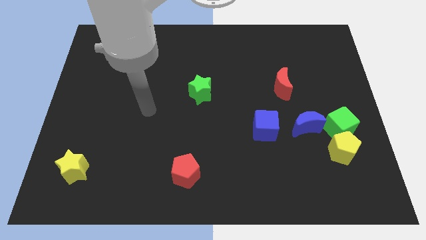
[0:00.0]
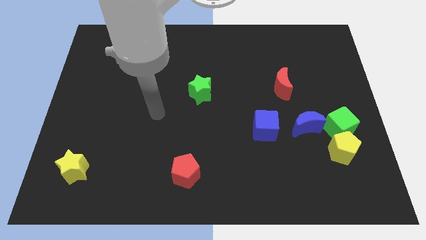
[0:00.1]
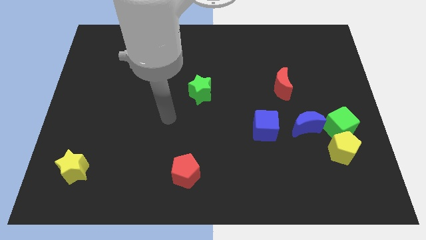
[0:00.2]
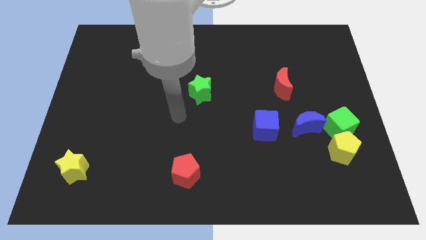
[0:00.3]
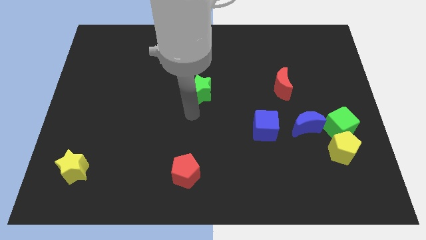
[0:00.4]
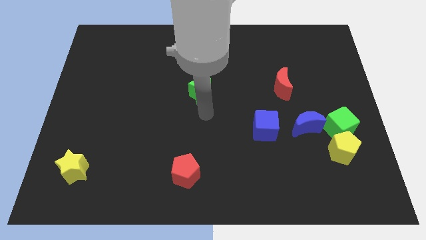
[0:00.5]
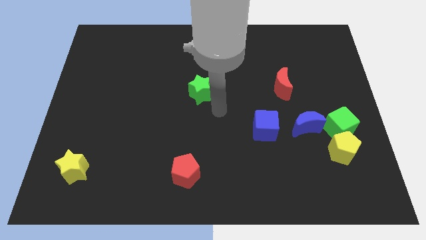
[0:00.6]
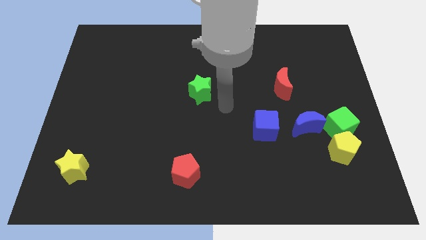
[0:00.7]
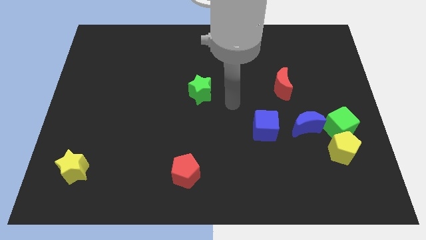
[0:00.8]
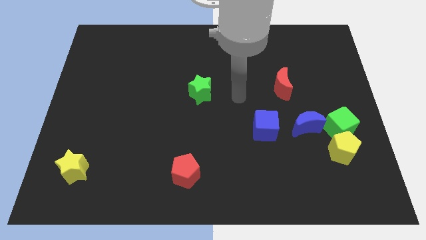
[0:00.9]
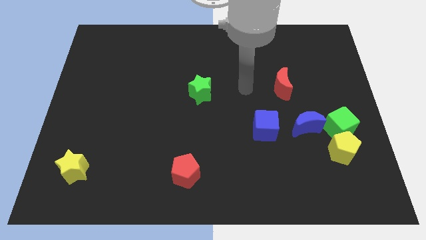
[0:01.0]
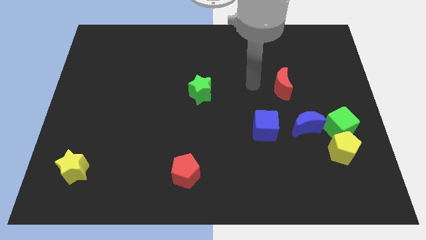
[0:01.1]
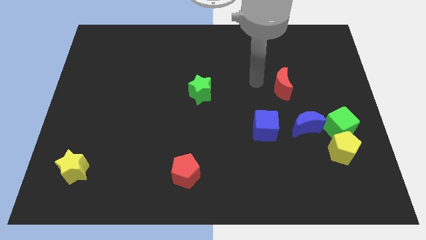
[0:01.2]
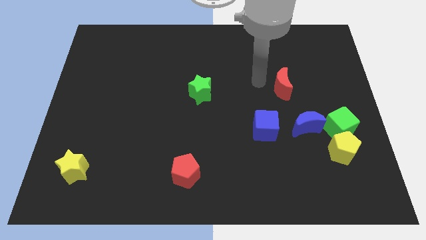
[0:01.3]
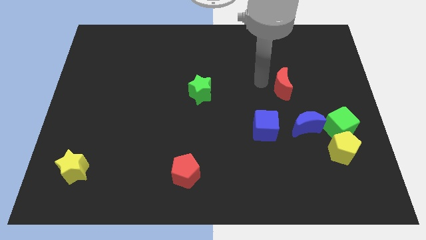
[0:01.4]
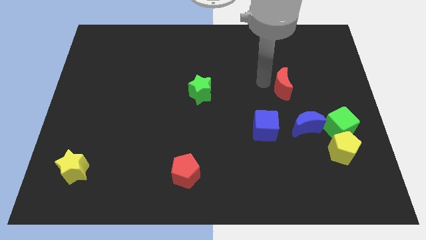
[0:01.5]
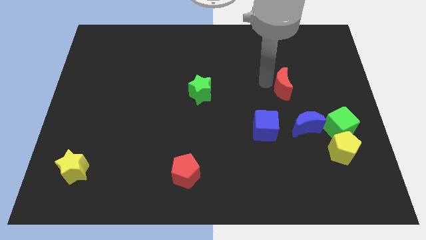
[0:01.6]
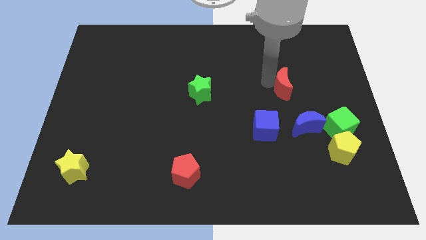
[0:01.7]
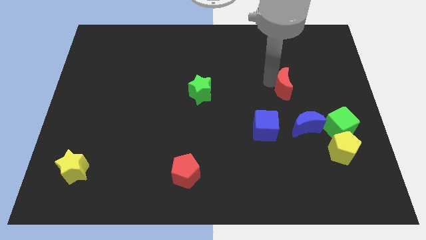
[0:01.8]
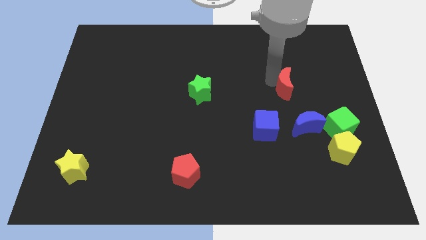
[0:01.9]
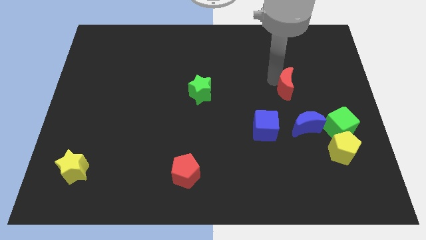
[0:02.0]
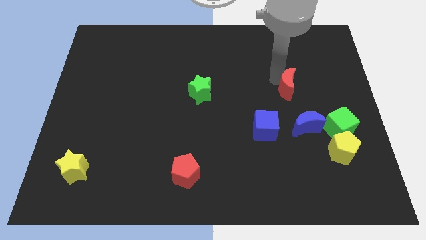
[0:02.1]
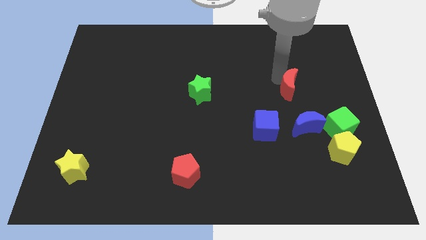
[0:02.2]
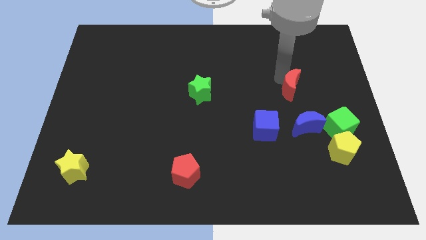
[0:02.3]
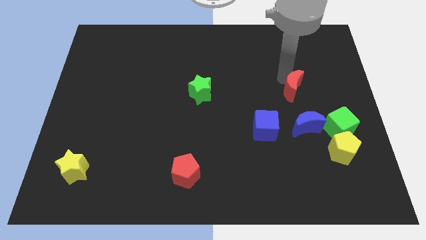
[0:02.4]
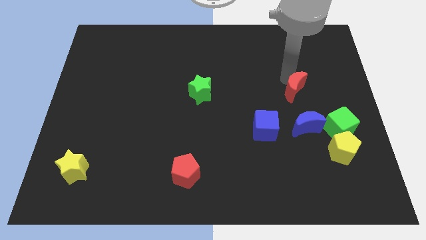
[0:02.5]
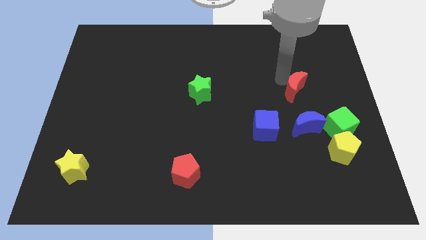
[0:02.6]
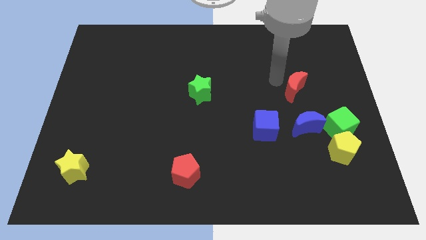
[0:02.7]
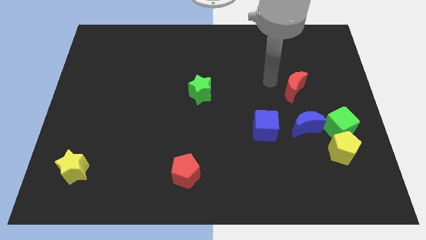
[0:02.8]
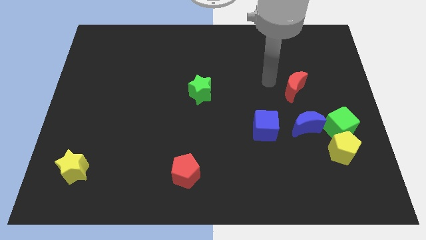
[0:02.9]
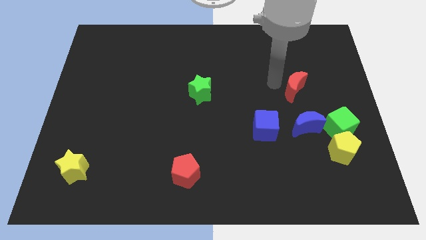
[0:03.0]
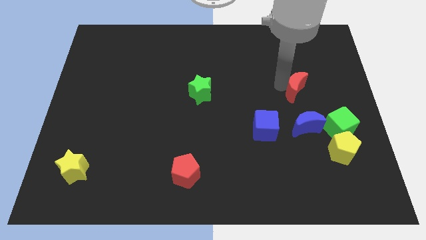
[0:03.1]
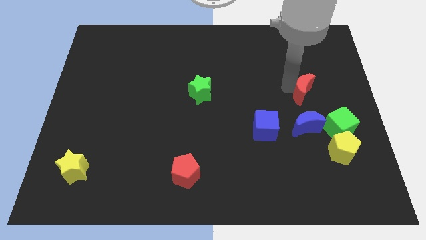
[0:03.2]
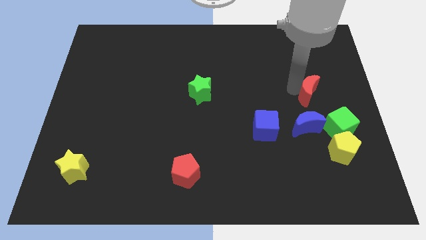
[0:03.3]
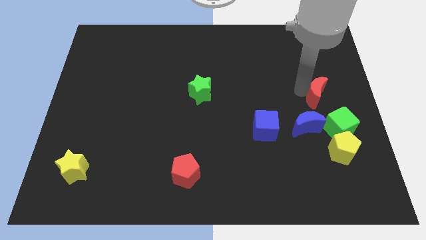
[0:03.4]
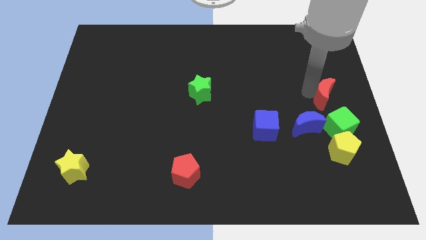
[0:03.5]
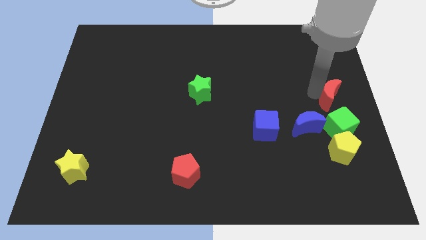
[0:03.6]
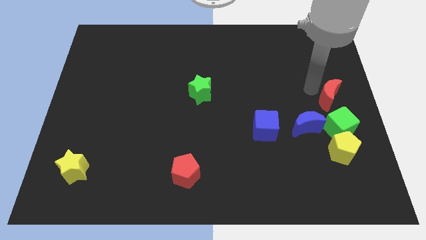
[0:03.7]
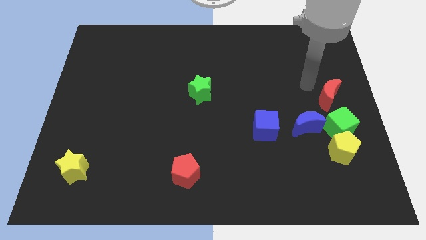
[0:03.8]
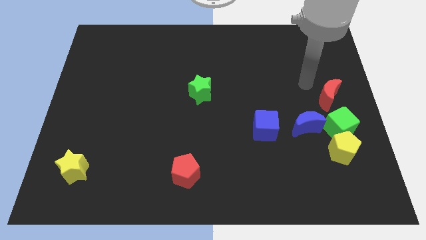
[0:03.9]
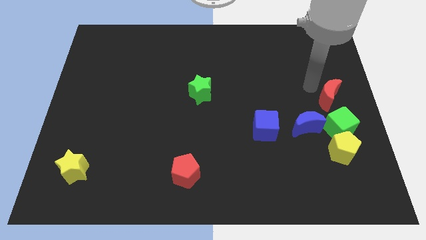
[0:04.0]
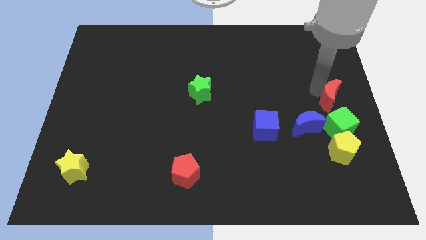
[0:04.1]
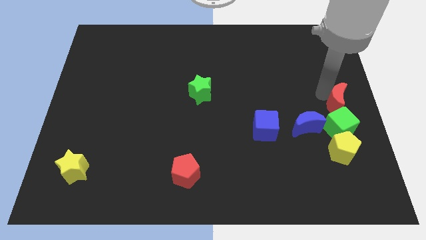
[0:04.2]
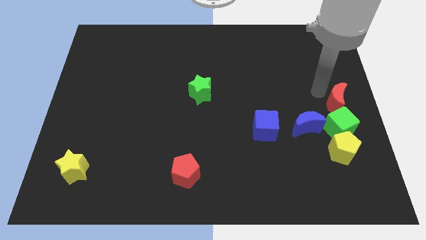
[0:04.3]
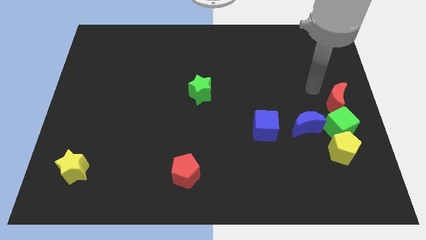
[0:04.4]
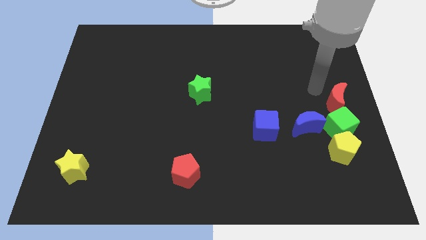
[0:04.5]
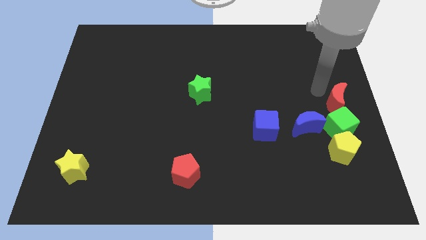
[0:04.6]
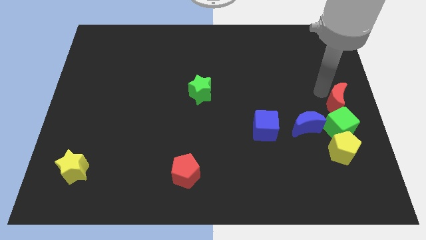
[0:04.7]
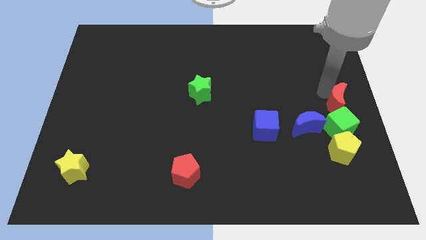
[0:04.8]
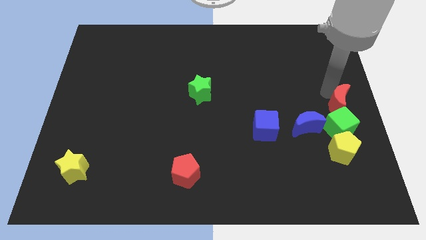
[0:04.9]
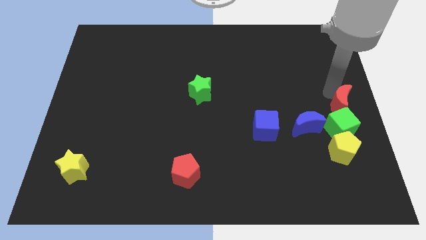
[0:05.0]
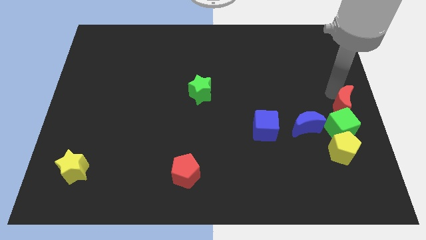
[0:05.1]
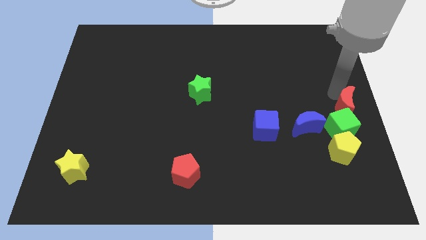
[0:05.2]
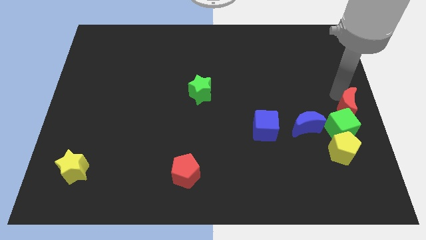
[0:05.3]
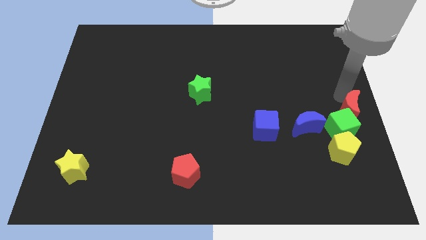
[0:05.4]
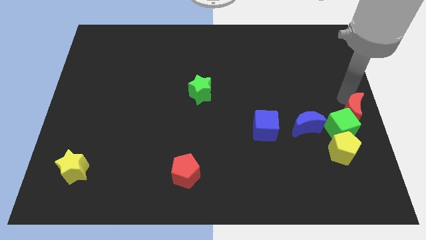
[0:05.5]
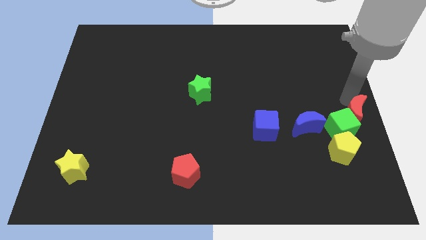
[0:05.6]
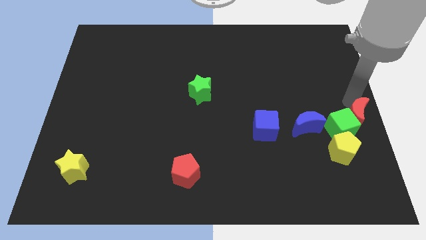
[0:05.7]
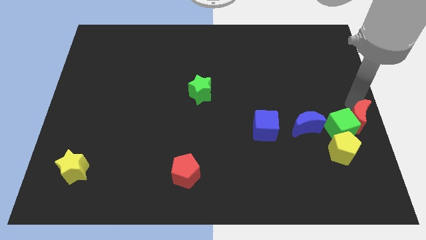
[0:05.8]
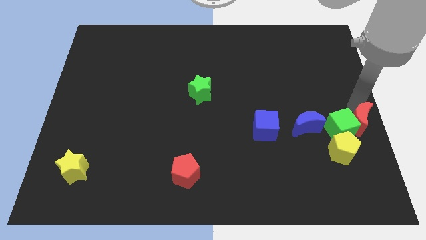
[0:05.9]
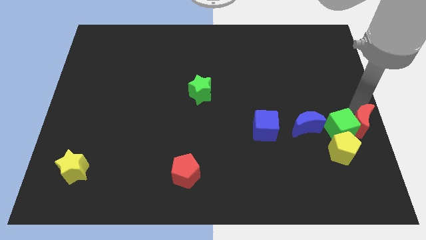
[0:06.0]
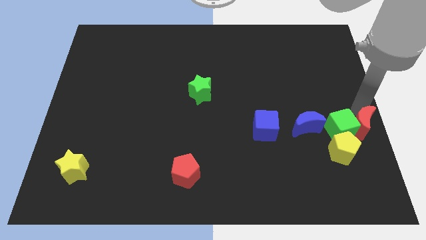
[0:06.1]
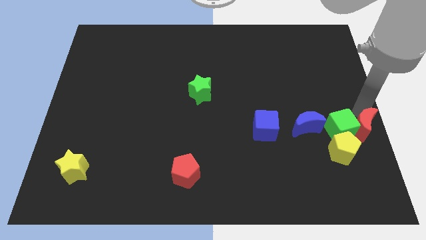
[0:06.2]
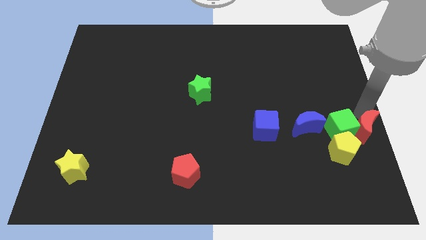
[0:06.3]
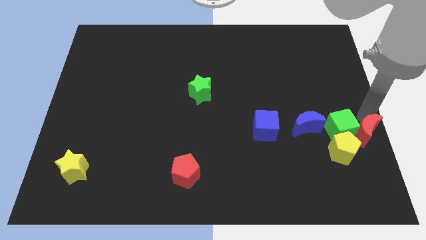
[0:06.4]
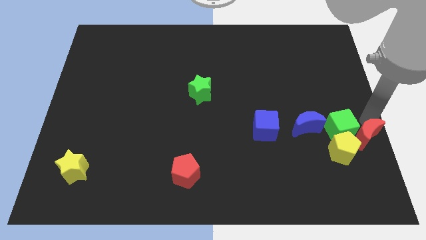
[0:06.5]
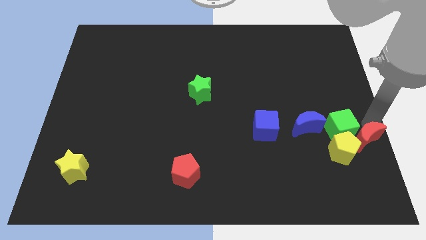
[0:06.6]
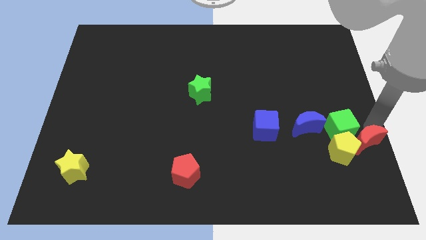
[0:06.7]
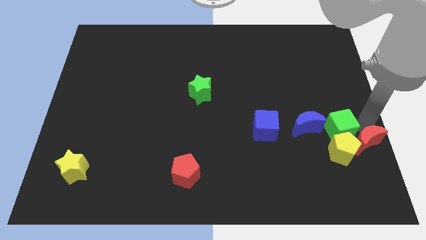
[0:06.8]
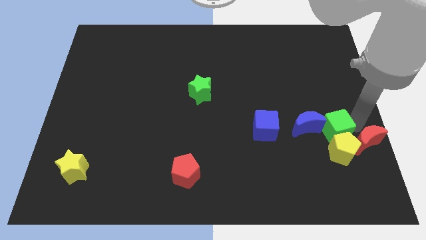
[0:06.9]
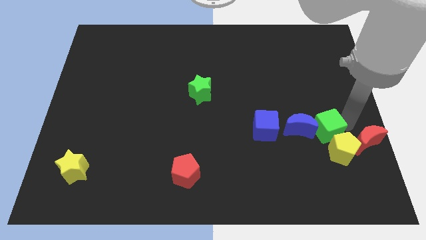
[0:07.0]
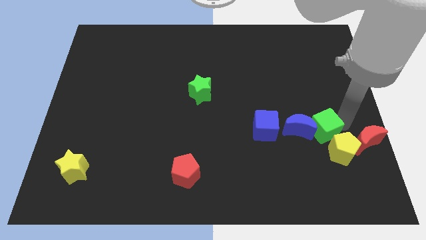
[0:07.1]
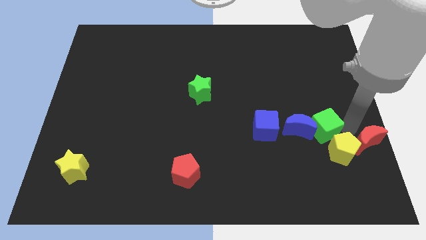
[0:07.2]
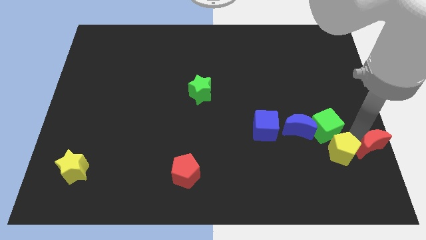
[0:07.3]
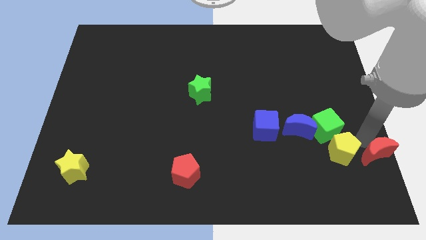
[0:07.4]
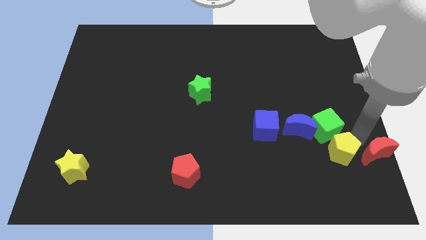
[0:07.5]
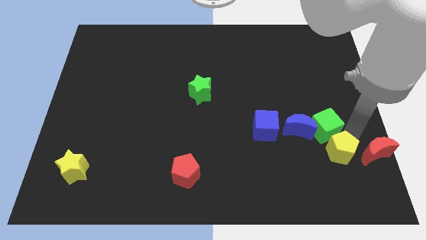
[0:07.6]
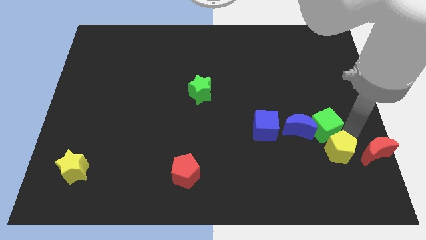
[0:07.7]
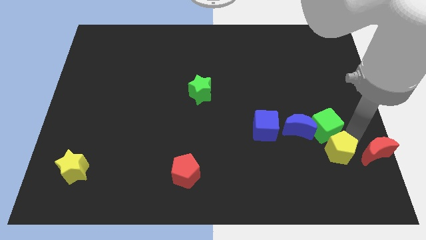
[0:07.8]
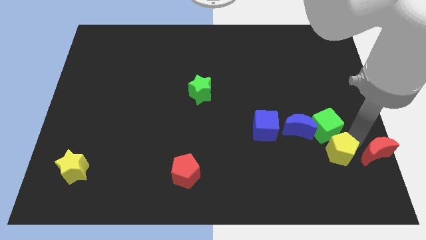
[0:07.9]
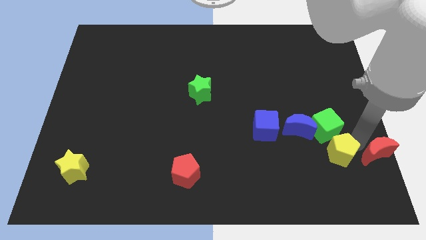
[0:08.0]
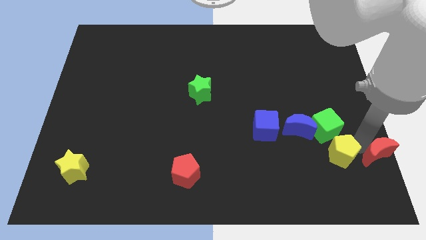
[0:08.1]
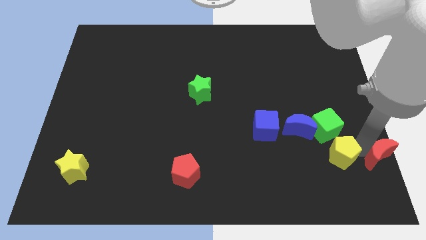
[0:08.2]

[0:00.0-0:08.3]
push the red moon to the bottom right corner
